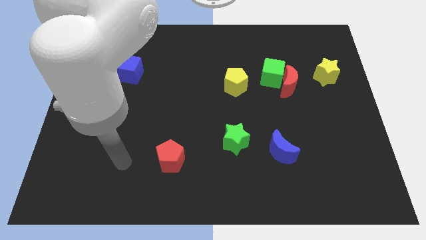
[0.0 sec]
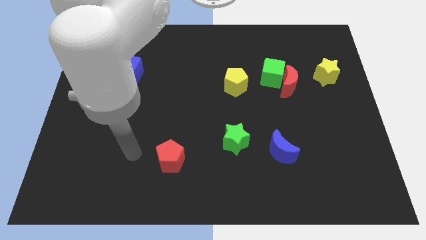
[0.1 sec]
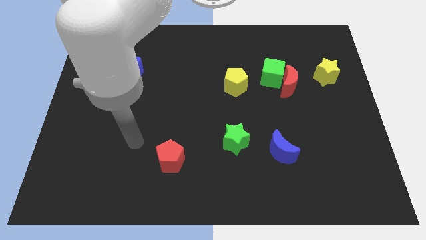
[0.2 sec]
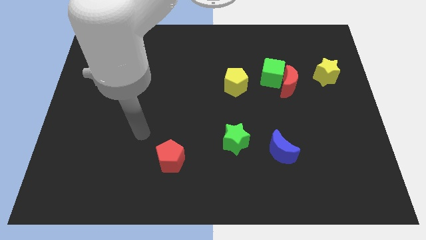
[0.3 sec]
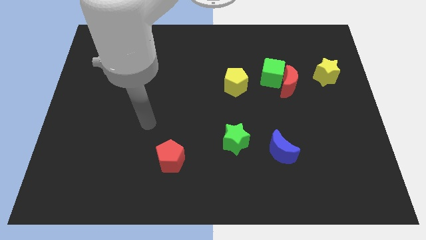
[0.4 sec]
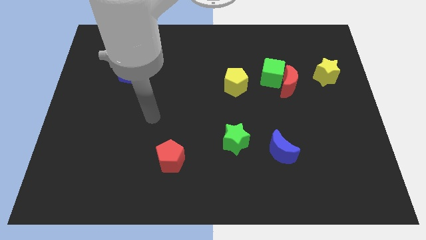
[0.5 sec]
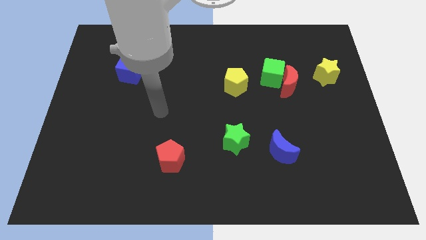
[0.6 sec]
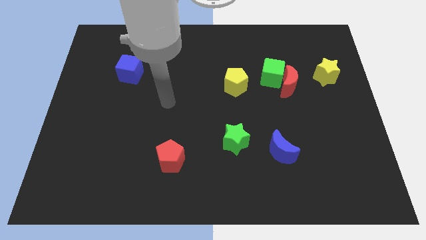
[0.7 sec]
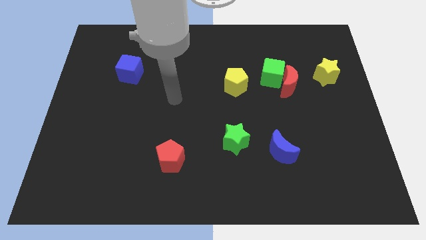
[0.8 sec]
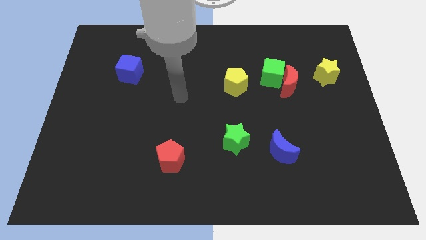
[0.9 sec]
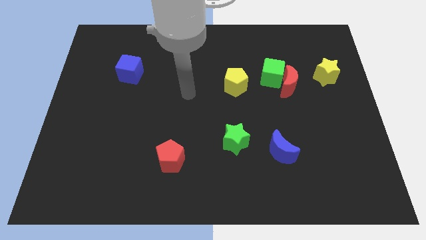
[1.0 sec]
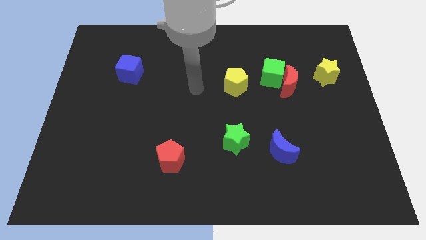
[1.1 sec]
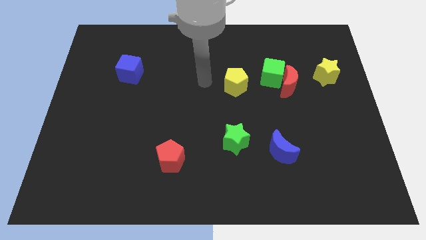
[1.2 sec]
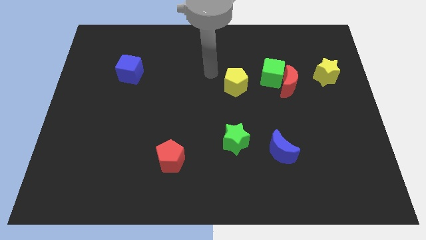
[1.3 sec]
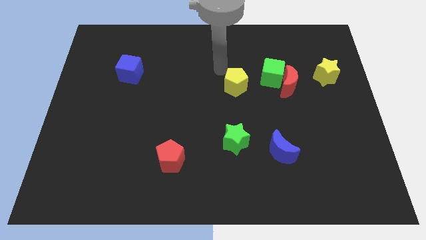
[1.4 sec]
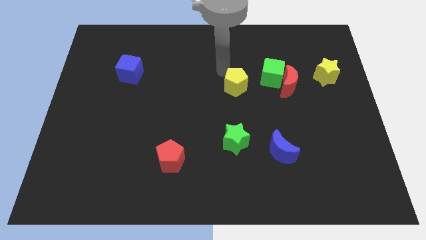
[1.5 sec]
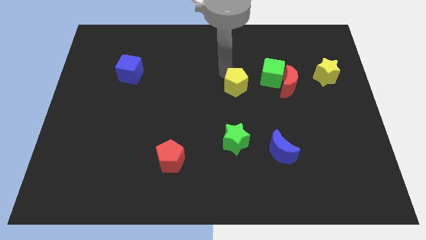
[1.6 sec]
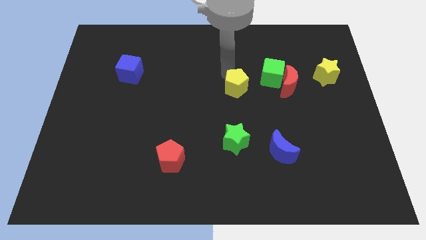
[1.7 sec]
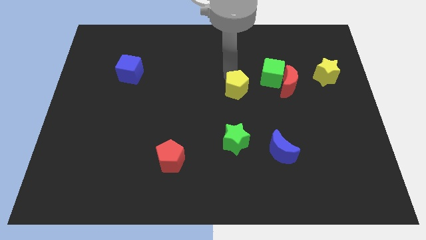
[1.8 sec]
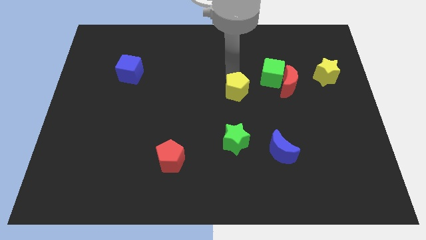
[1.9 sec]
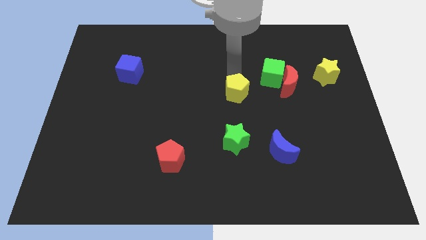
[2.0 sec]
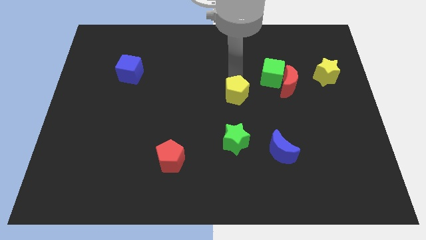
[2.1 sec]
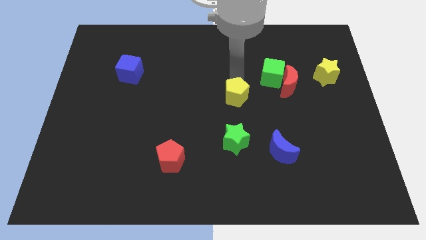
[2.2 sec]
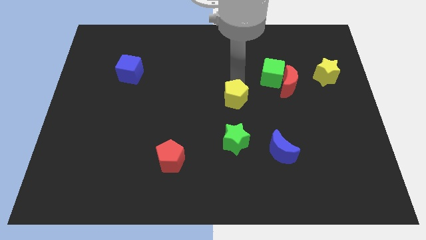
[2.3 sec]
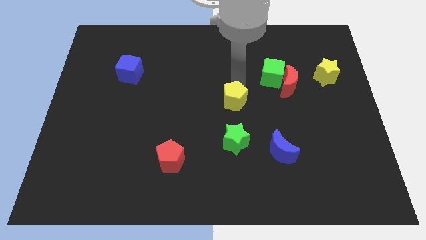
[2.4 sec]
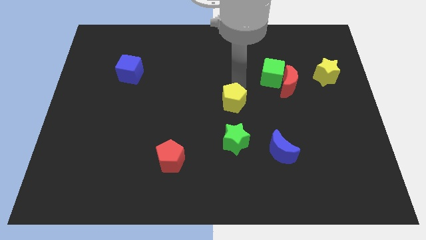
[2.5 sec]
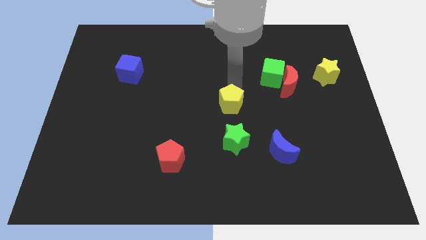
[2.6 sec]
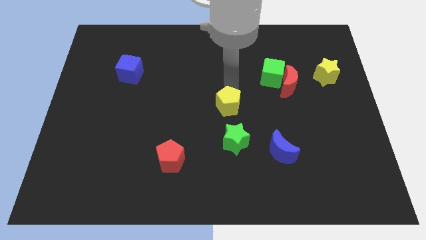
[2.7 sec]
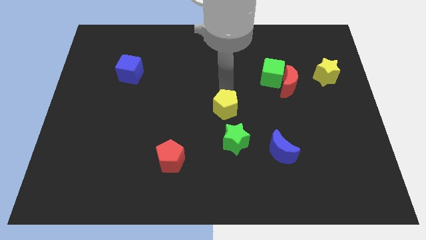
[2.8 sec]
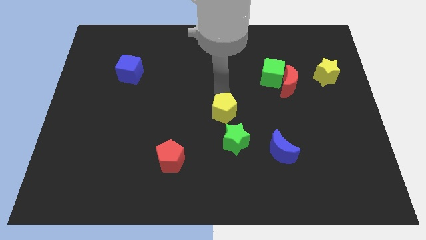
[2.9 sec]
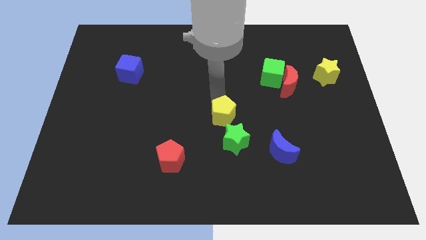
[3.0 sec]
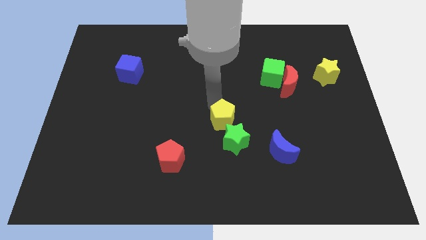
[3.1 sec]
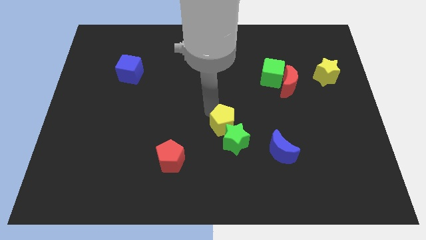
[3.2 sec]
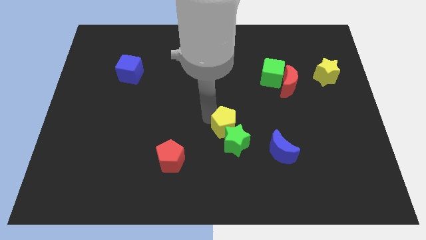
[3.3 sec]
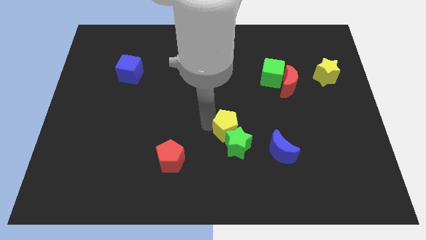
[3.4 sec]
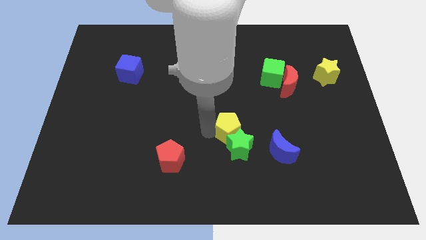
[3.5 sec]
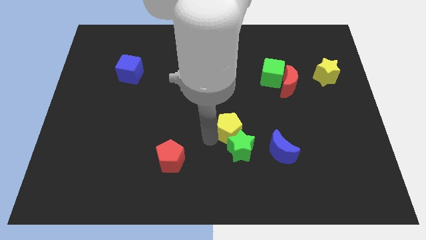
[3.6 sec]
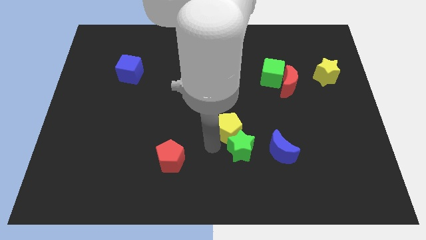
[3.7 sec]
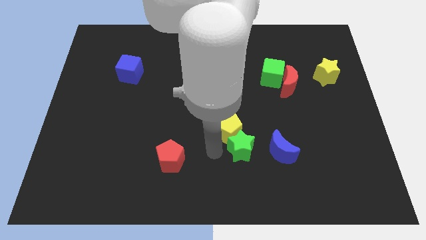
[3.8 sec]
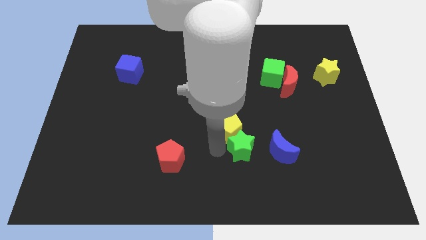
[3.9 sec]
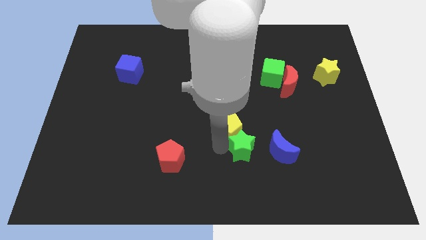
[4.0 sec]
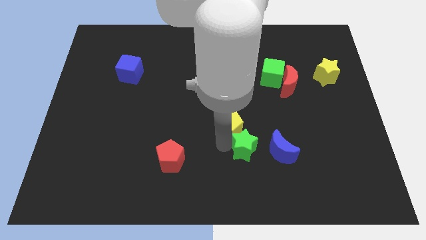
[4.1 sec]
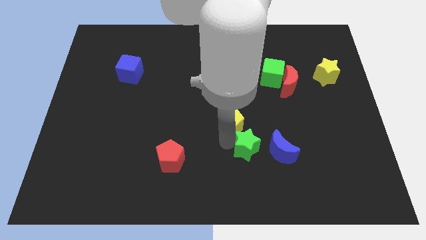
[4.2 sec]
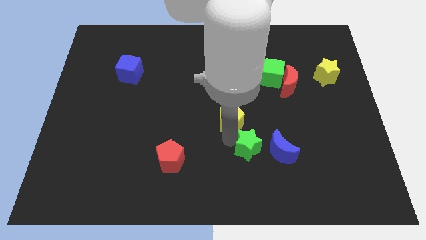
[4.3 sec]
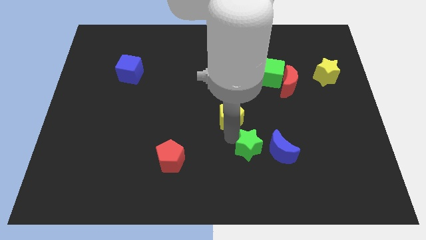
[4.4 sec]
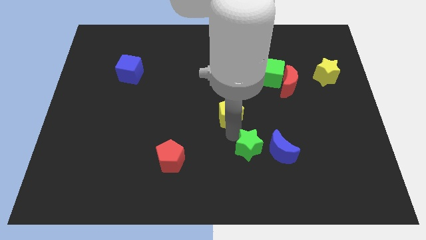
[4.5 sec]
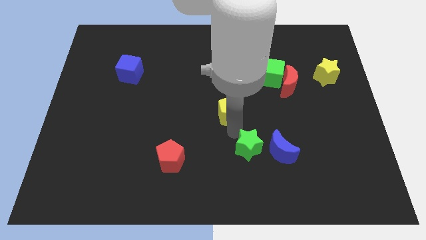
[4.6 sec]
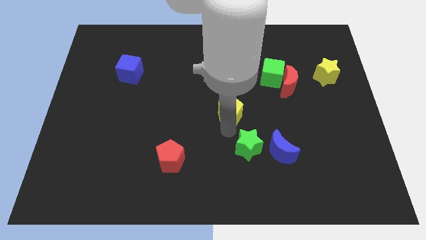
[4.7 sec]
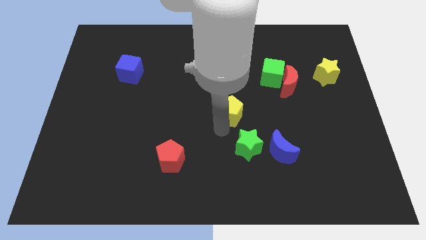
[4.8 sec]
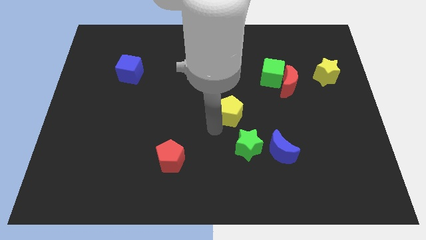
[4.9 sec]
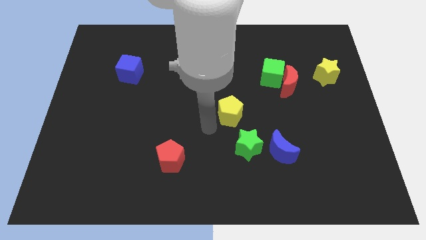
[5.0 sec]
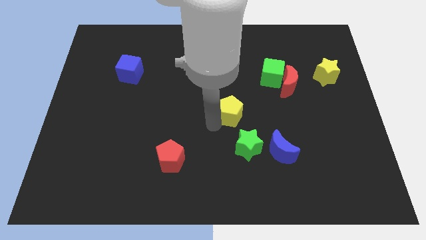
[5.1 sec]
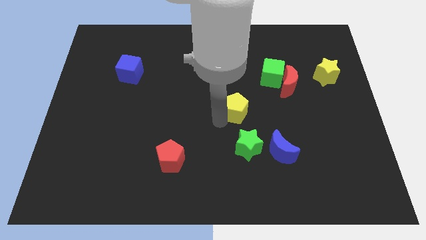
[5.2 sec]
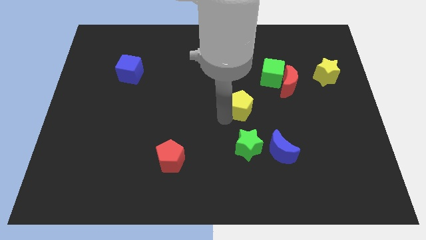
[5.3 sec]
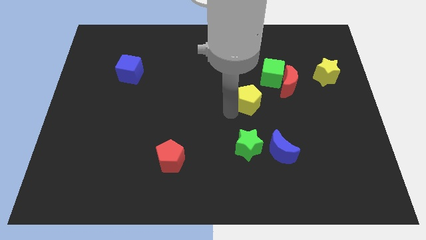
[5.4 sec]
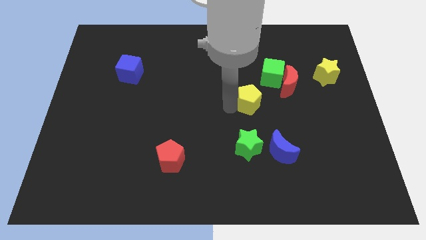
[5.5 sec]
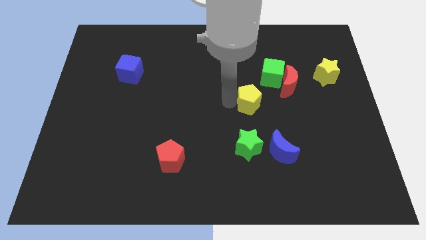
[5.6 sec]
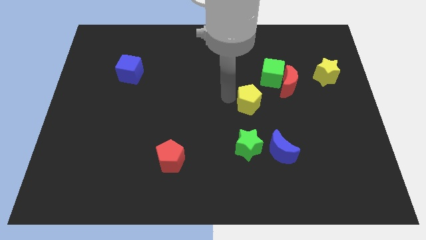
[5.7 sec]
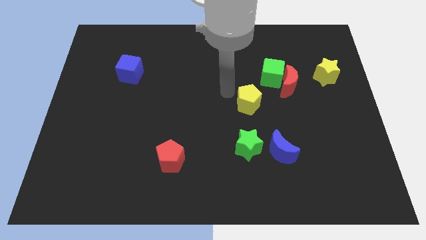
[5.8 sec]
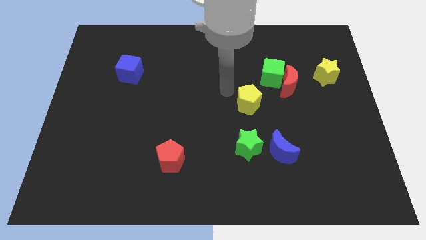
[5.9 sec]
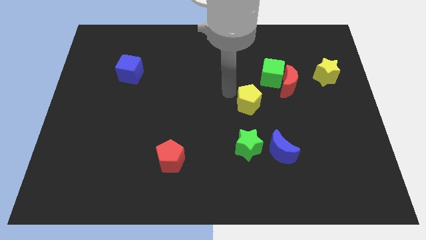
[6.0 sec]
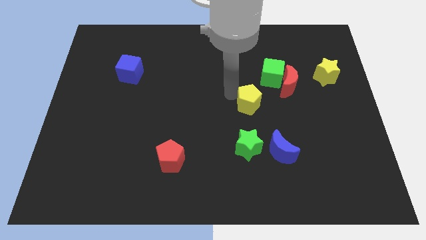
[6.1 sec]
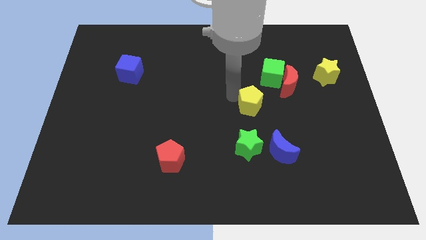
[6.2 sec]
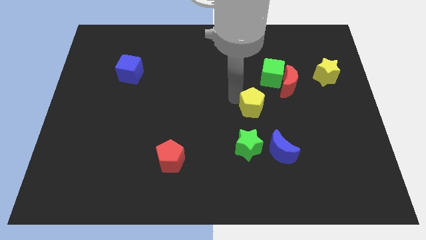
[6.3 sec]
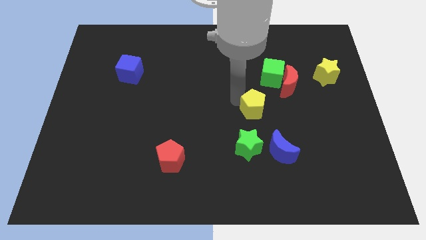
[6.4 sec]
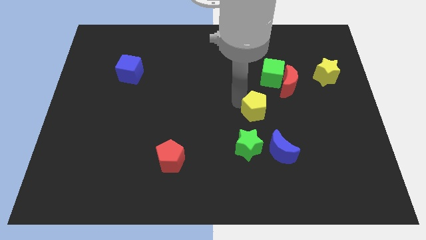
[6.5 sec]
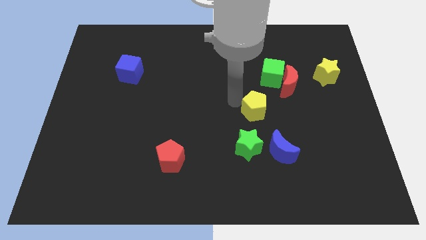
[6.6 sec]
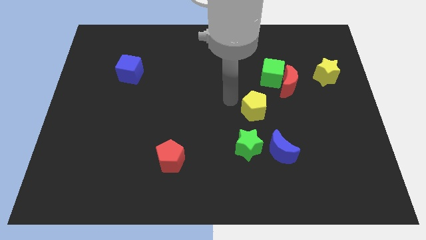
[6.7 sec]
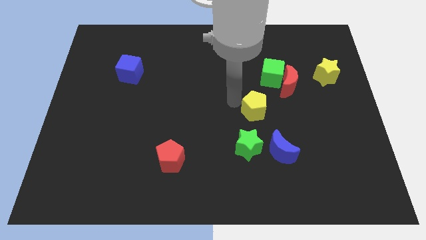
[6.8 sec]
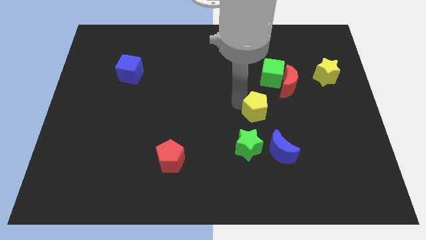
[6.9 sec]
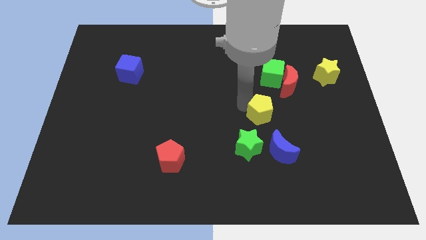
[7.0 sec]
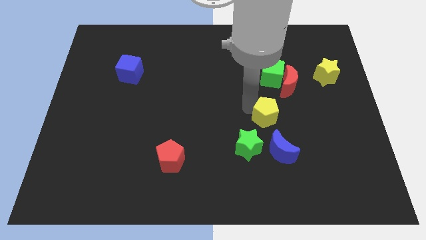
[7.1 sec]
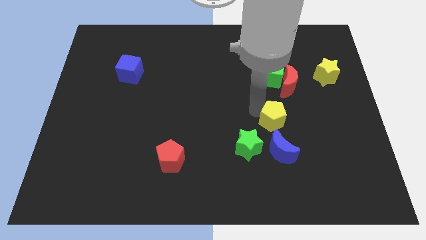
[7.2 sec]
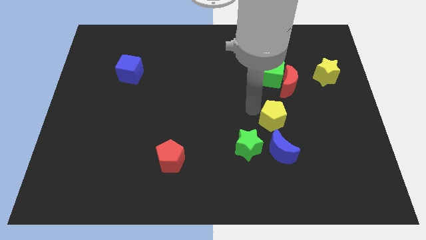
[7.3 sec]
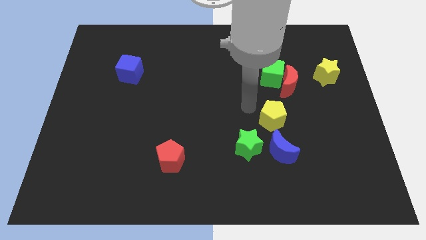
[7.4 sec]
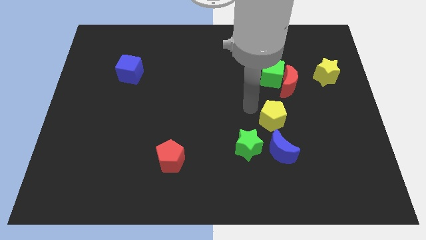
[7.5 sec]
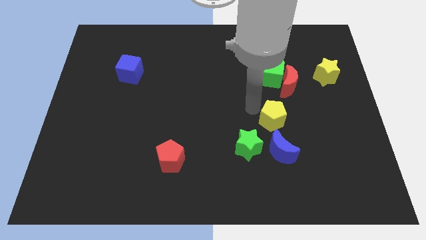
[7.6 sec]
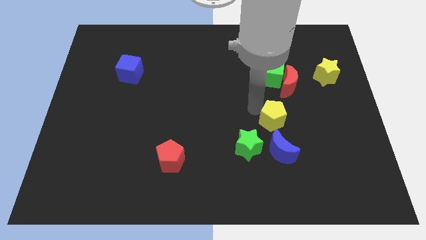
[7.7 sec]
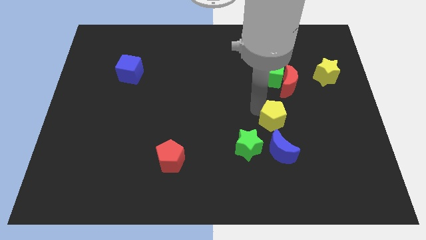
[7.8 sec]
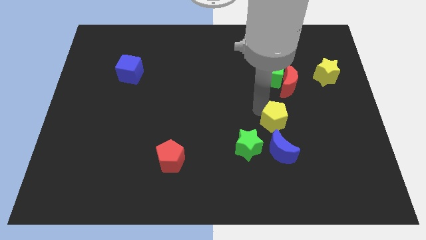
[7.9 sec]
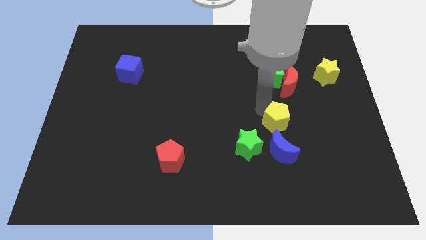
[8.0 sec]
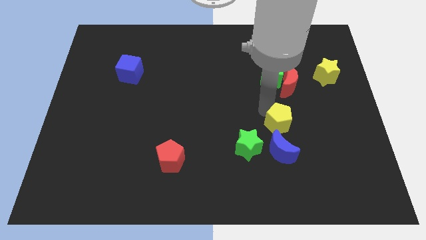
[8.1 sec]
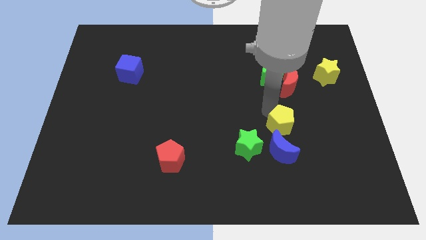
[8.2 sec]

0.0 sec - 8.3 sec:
put the yellow pentagon diagonally up and to the right of the blue moon
